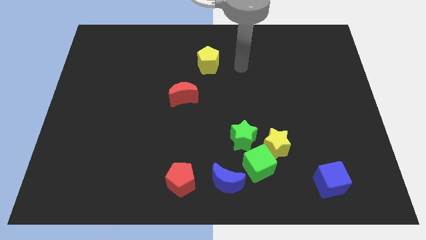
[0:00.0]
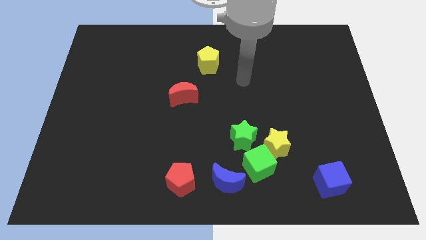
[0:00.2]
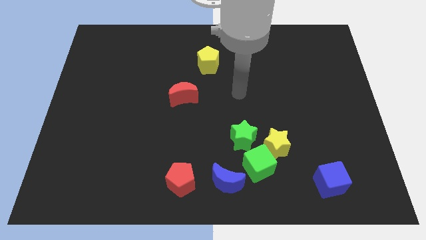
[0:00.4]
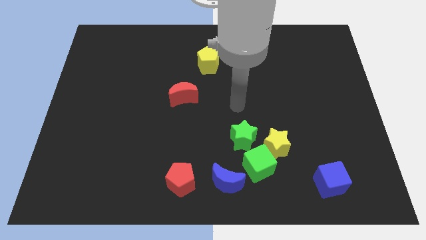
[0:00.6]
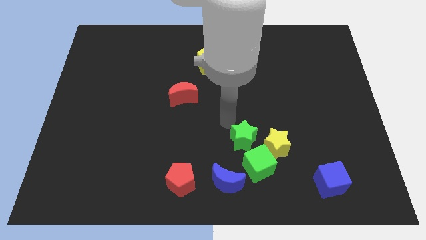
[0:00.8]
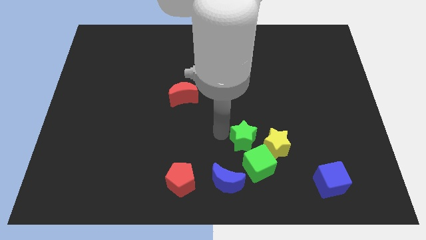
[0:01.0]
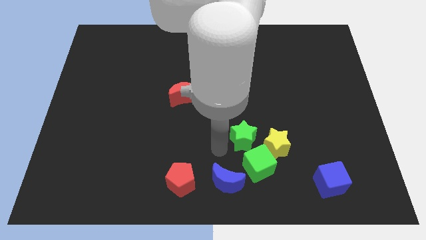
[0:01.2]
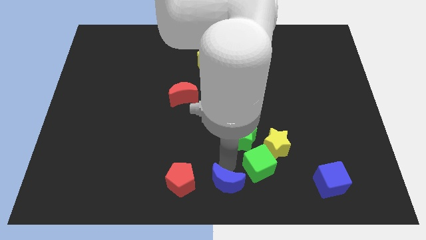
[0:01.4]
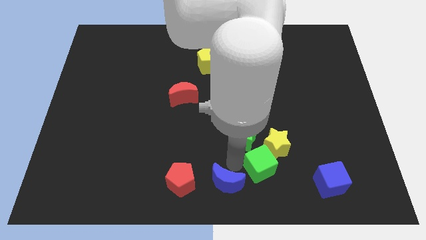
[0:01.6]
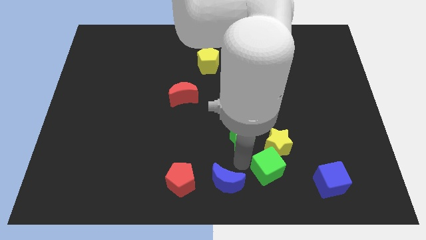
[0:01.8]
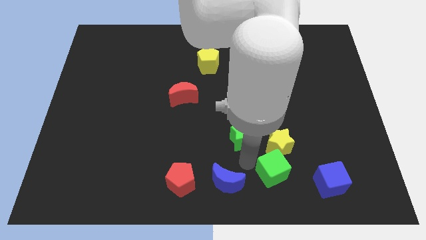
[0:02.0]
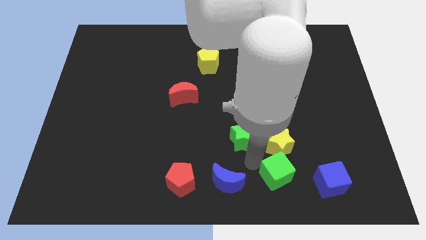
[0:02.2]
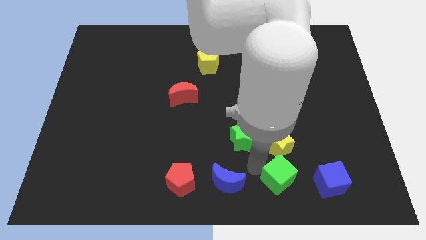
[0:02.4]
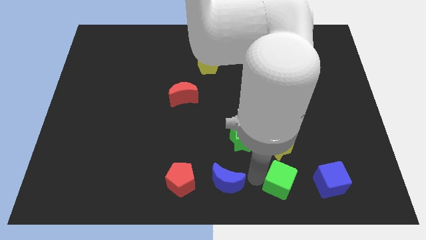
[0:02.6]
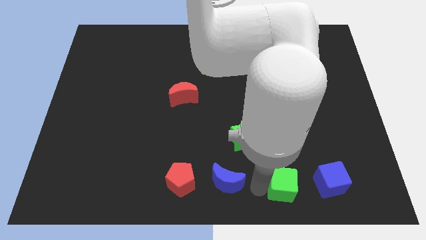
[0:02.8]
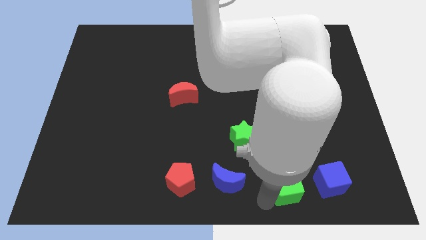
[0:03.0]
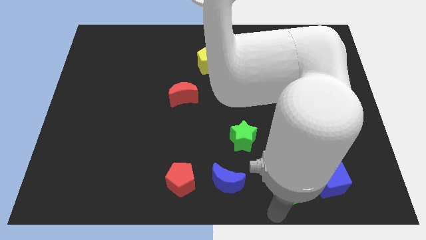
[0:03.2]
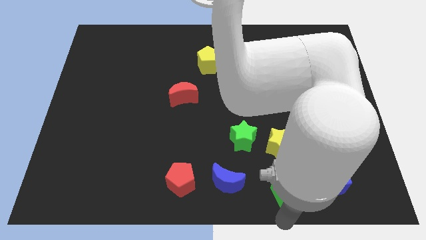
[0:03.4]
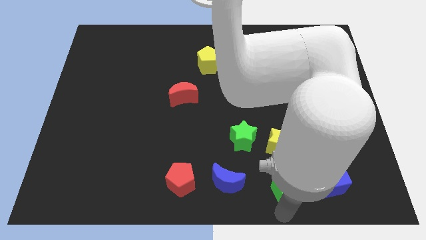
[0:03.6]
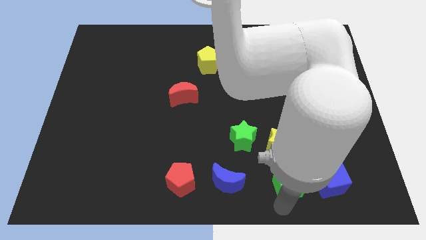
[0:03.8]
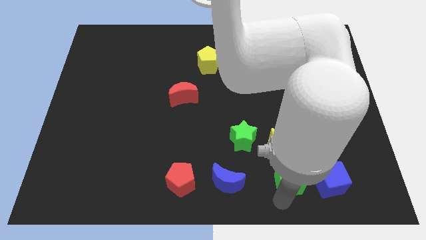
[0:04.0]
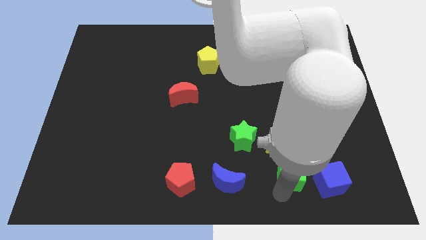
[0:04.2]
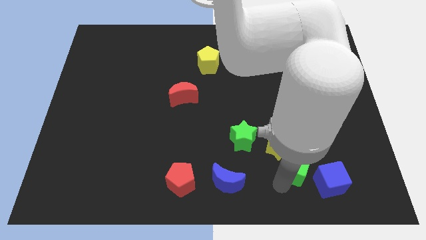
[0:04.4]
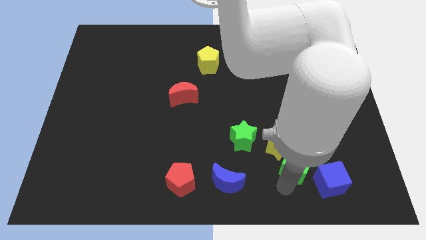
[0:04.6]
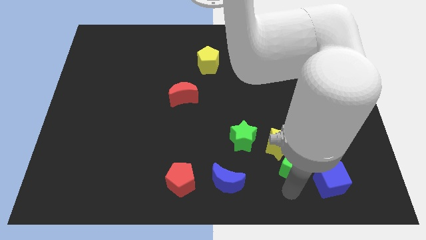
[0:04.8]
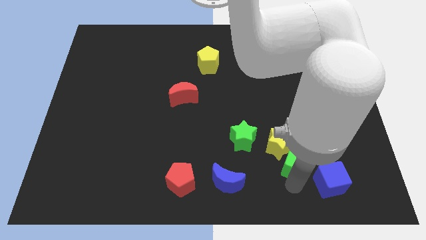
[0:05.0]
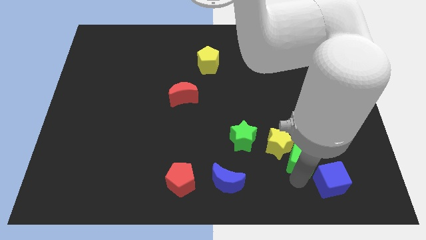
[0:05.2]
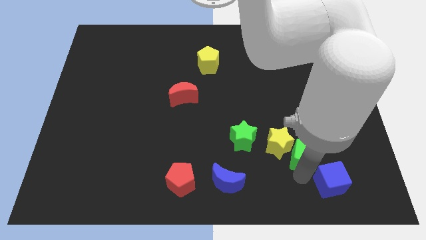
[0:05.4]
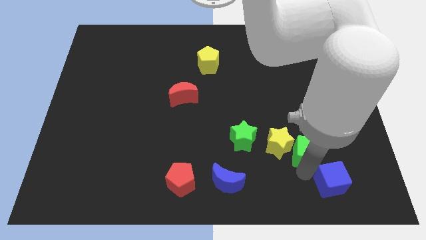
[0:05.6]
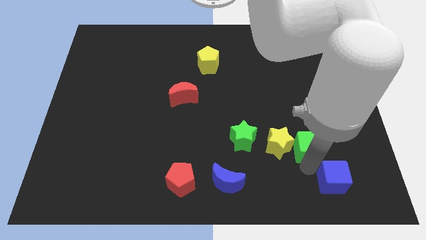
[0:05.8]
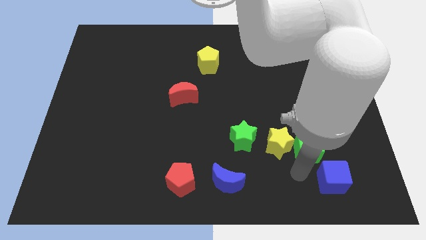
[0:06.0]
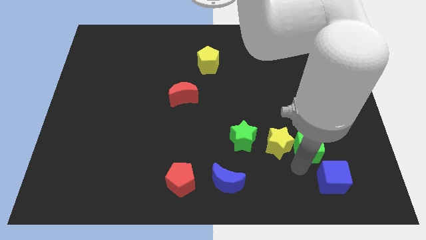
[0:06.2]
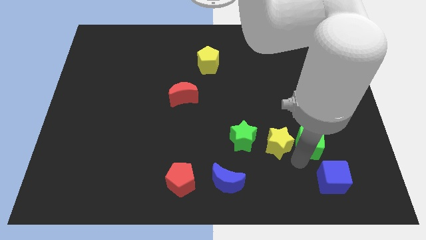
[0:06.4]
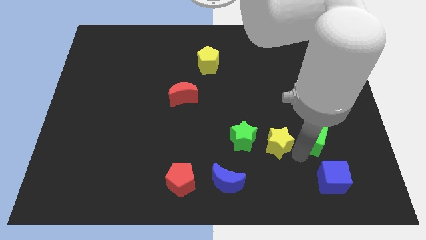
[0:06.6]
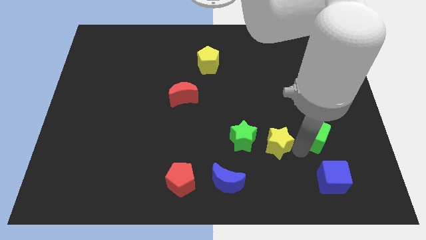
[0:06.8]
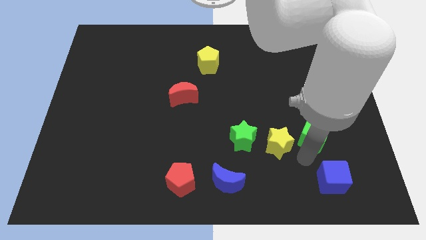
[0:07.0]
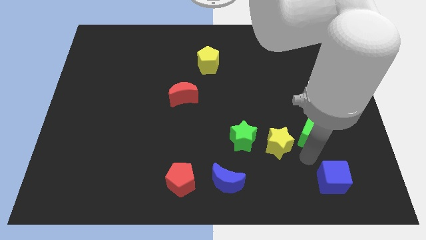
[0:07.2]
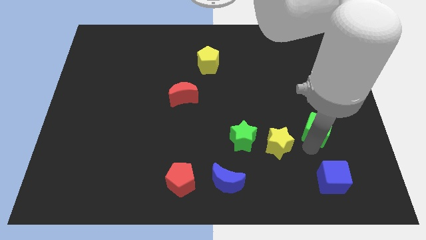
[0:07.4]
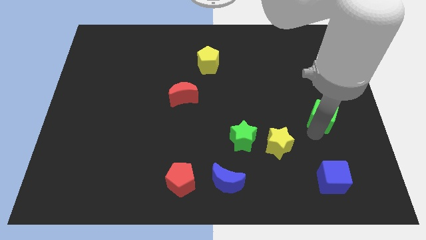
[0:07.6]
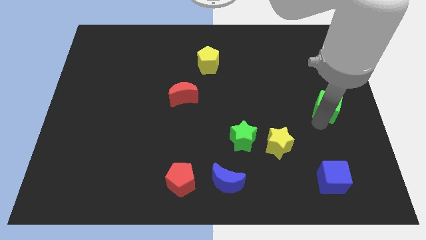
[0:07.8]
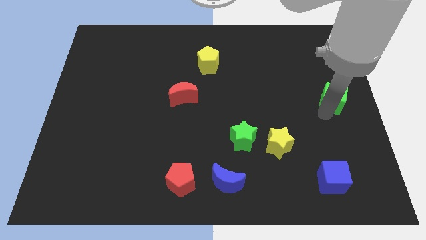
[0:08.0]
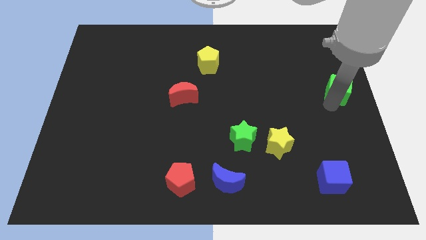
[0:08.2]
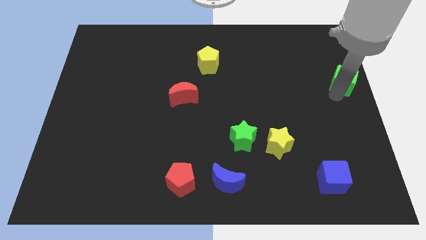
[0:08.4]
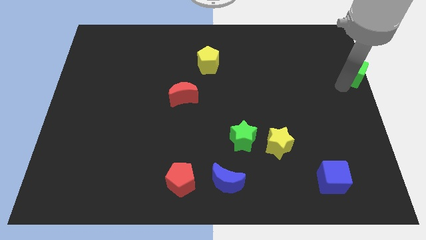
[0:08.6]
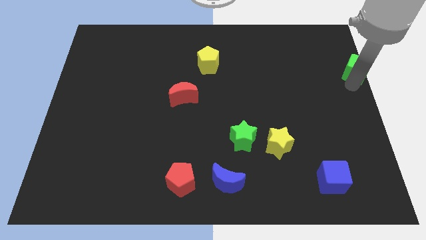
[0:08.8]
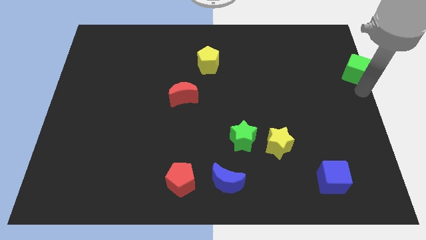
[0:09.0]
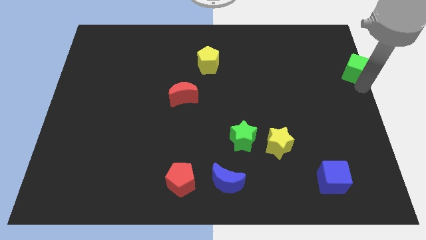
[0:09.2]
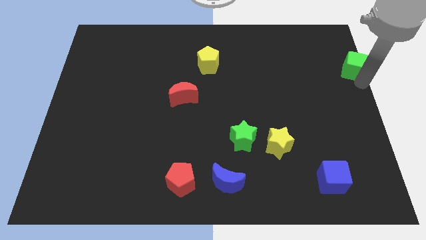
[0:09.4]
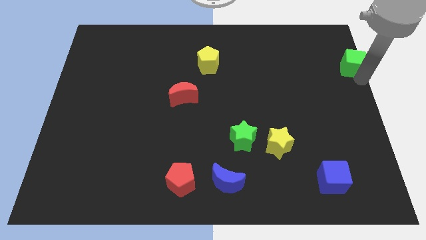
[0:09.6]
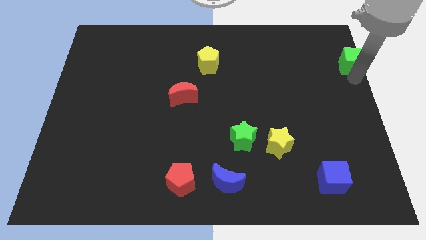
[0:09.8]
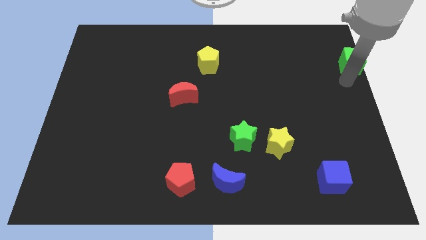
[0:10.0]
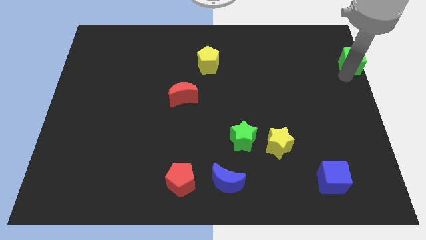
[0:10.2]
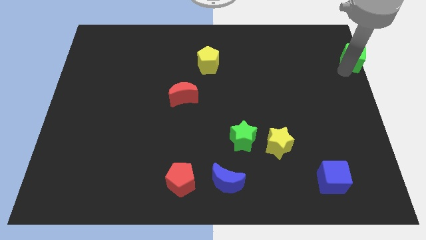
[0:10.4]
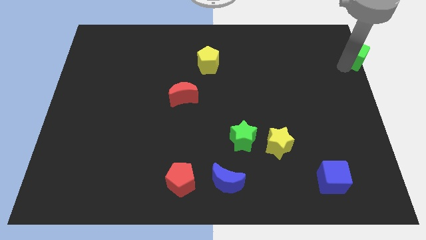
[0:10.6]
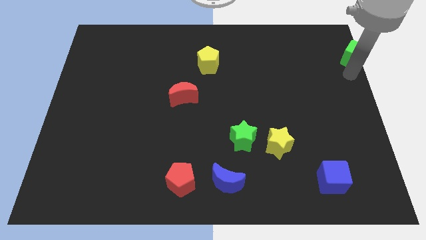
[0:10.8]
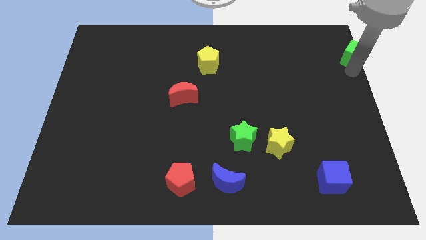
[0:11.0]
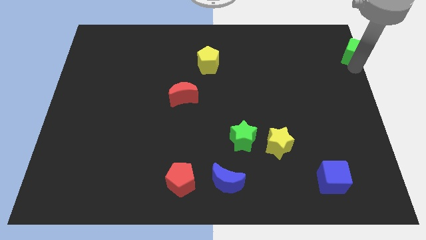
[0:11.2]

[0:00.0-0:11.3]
push the green cube to the top right corner

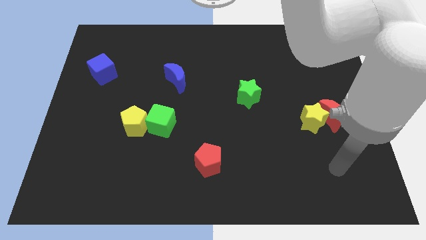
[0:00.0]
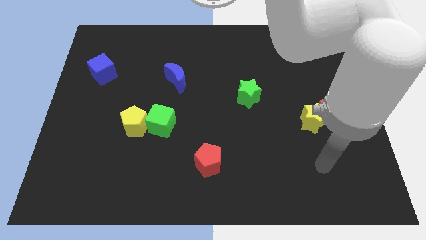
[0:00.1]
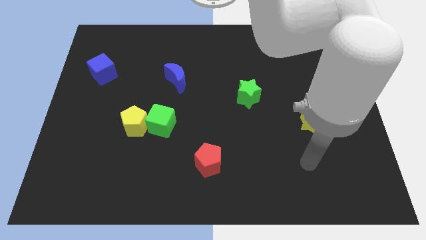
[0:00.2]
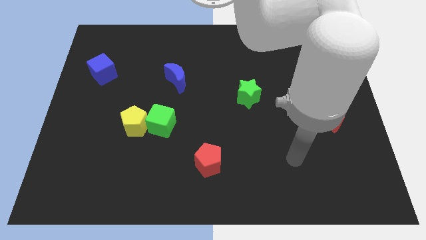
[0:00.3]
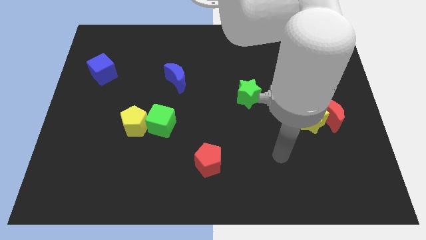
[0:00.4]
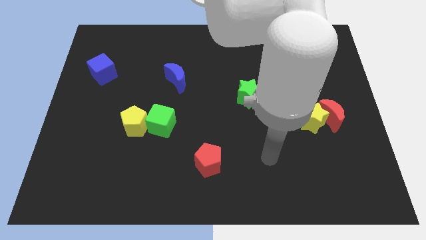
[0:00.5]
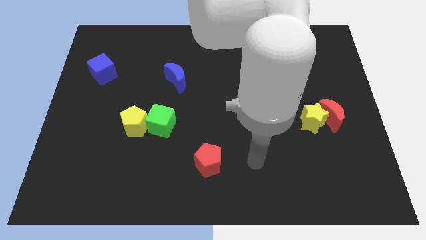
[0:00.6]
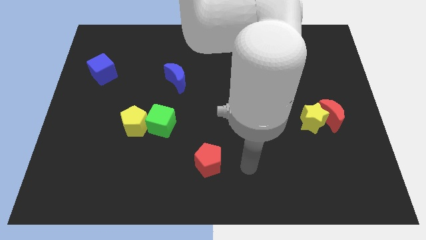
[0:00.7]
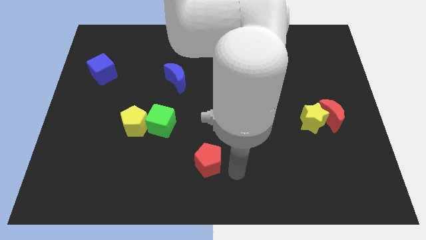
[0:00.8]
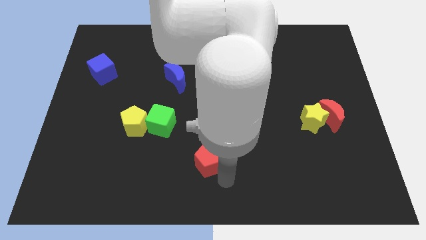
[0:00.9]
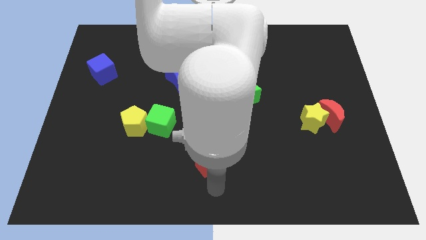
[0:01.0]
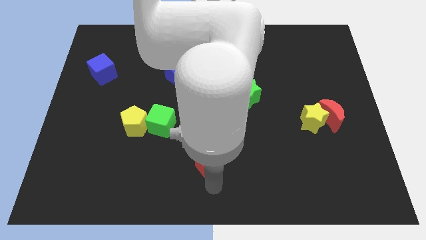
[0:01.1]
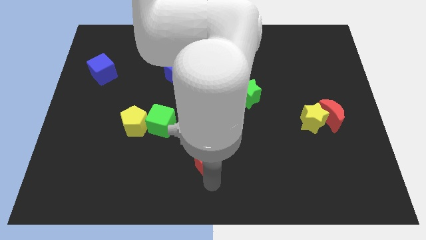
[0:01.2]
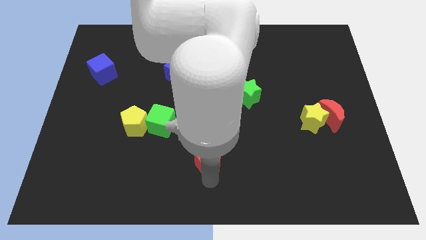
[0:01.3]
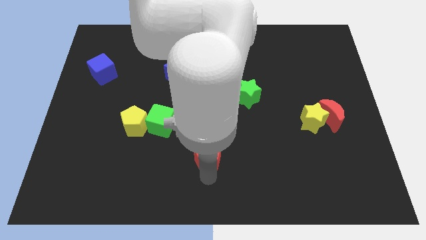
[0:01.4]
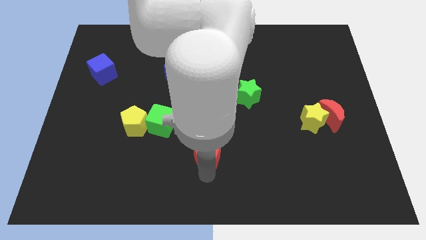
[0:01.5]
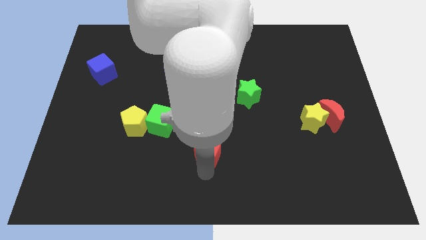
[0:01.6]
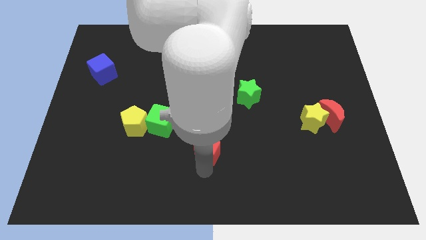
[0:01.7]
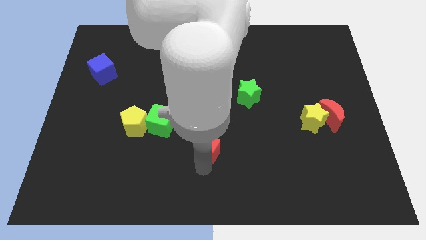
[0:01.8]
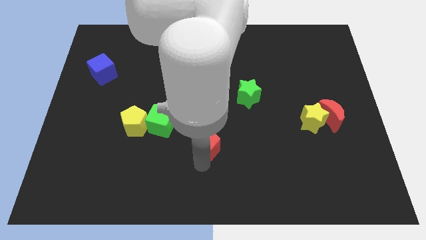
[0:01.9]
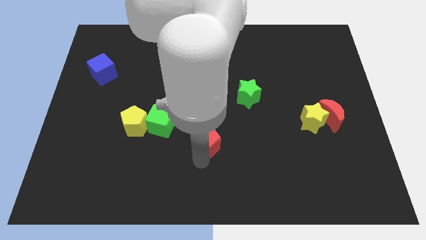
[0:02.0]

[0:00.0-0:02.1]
slide the red pentagon to the middle of the board

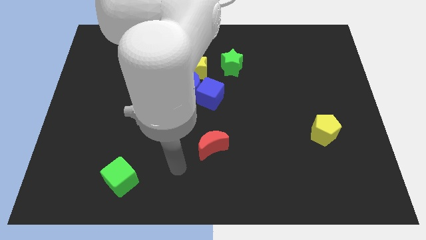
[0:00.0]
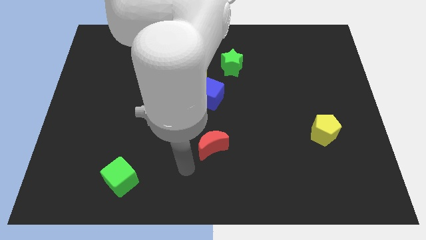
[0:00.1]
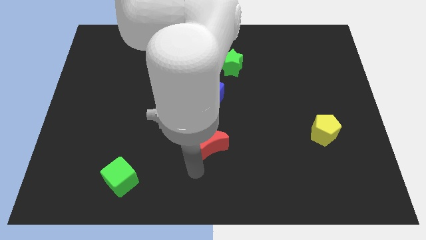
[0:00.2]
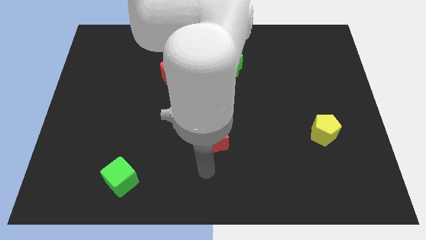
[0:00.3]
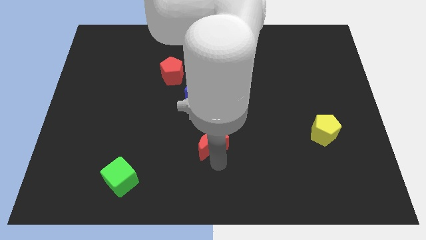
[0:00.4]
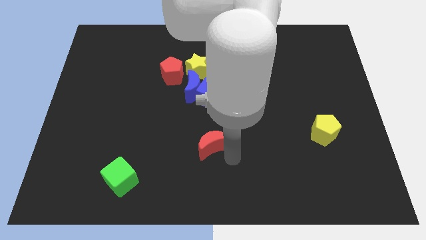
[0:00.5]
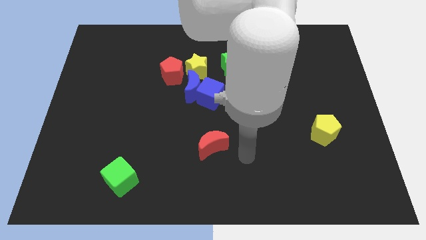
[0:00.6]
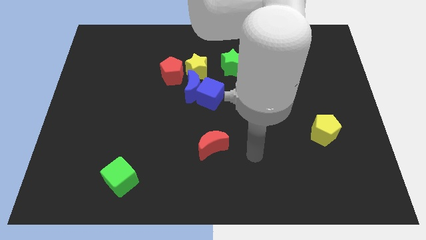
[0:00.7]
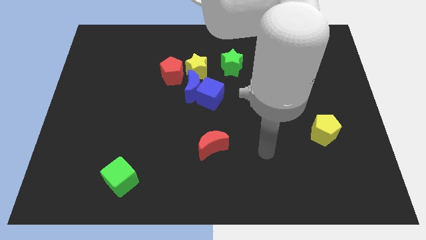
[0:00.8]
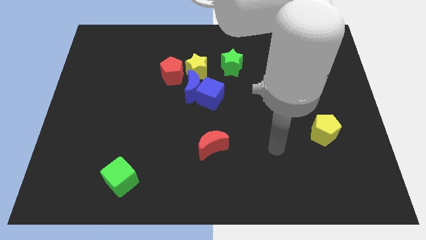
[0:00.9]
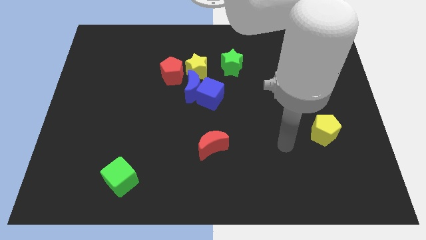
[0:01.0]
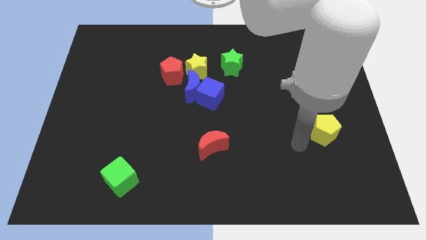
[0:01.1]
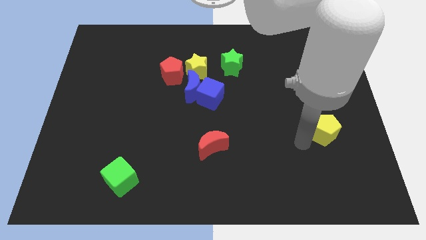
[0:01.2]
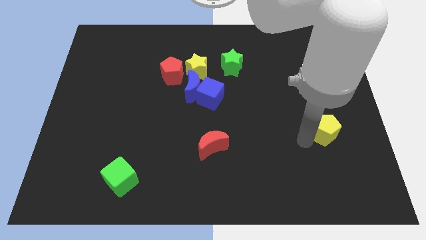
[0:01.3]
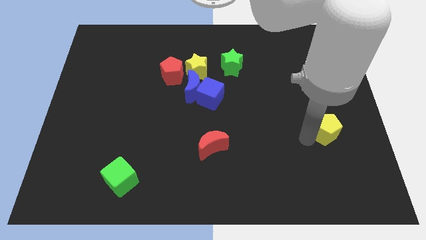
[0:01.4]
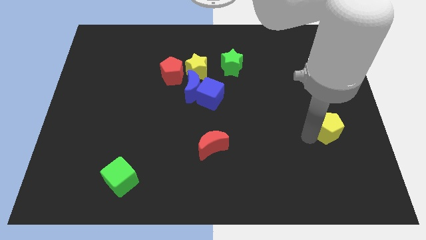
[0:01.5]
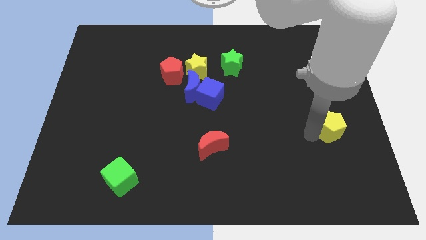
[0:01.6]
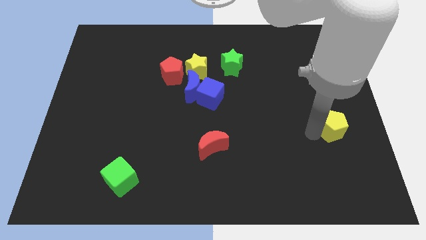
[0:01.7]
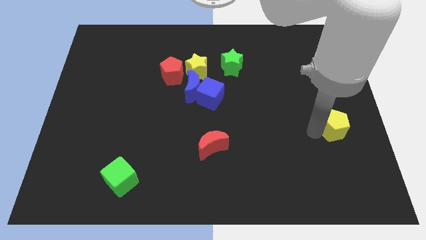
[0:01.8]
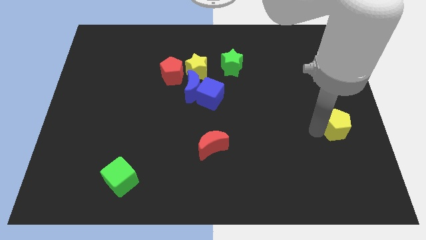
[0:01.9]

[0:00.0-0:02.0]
slide the yellow pentagon to the right side of the board
